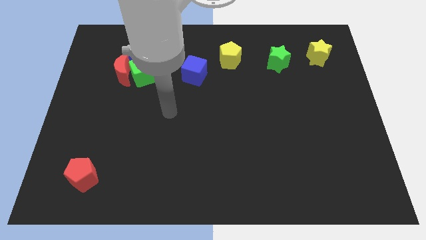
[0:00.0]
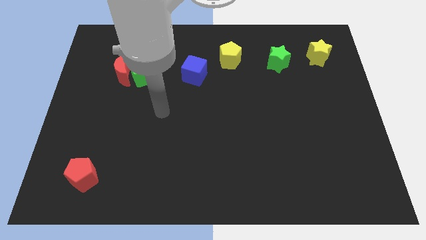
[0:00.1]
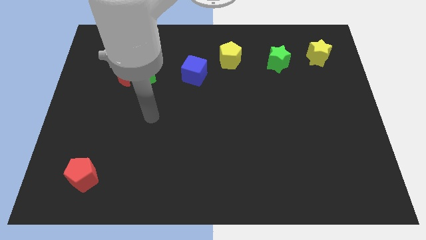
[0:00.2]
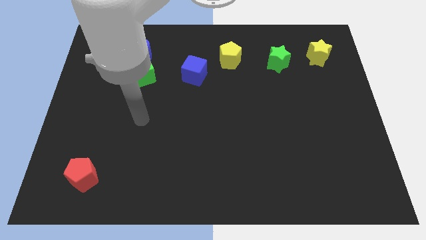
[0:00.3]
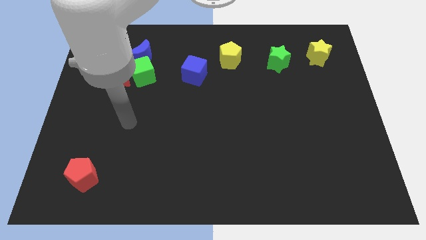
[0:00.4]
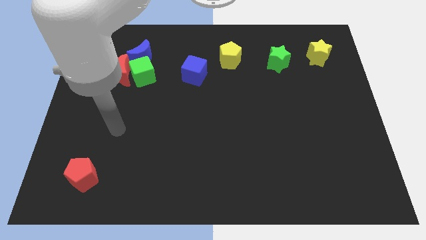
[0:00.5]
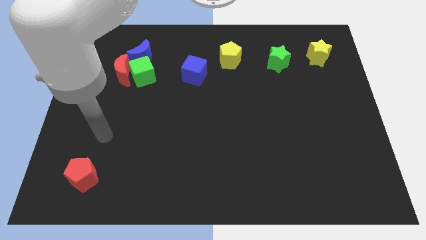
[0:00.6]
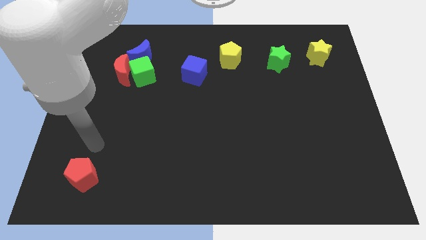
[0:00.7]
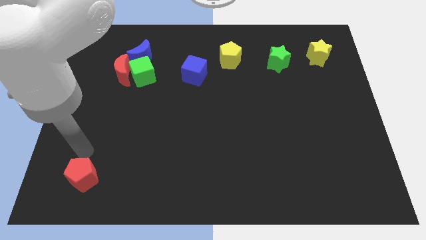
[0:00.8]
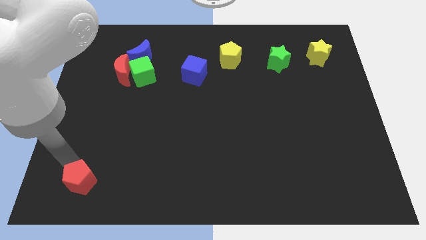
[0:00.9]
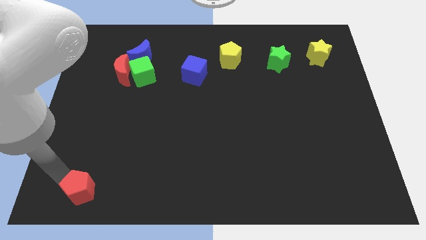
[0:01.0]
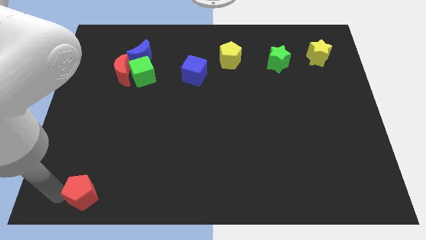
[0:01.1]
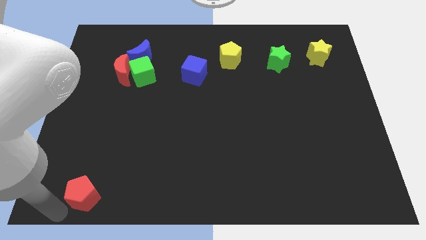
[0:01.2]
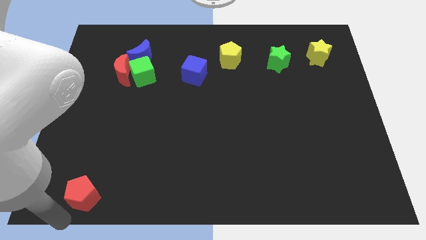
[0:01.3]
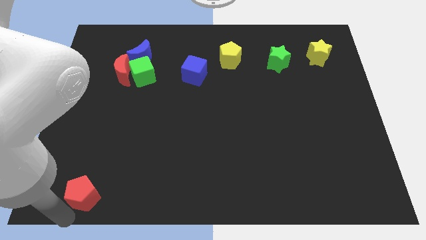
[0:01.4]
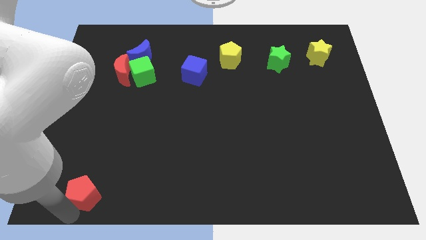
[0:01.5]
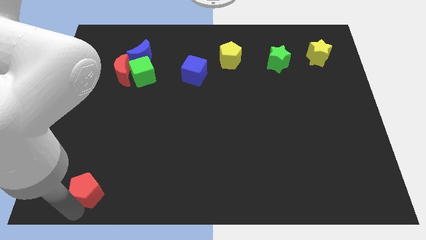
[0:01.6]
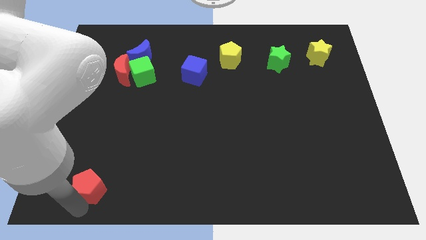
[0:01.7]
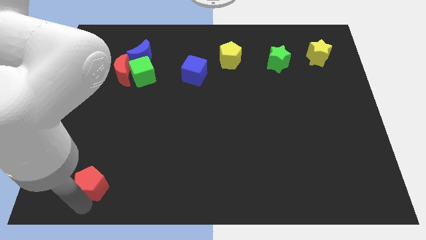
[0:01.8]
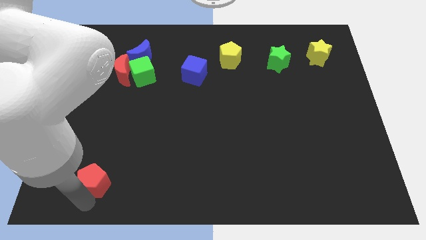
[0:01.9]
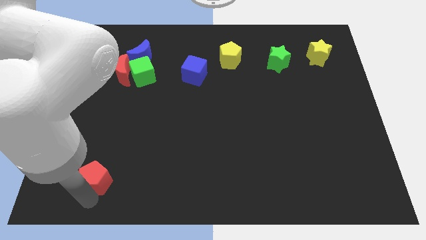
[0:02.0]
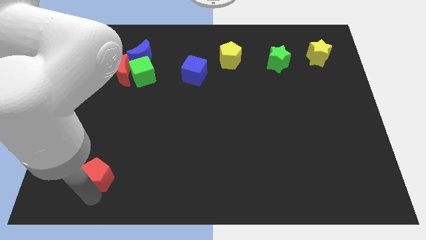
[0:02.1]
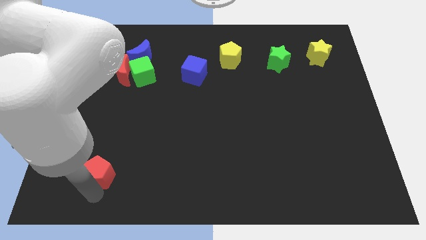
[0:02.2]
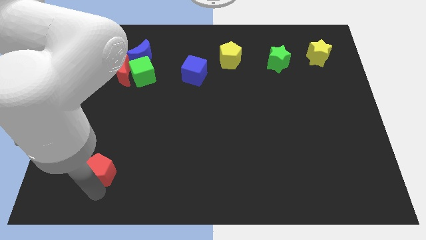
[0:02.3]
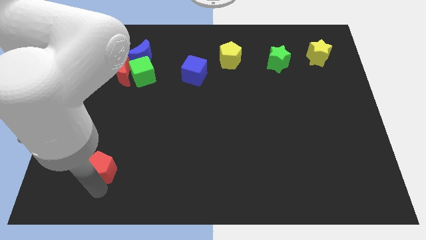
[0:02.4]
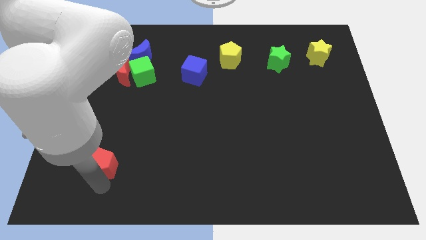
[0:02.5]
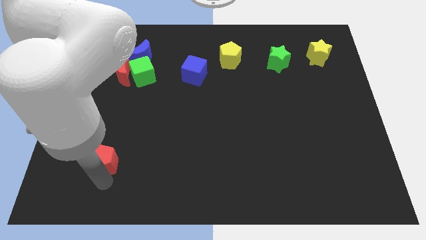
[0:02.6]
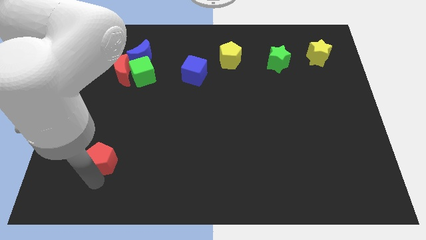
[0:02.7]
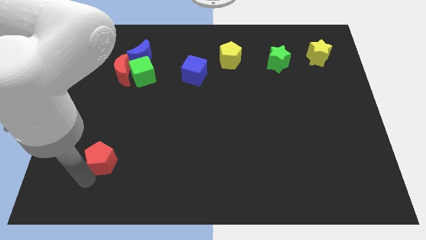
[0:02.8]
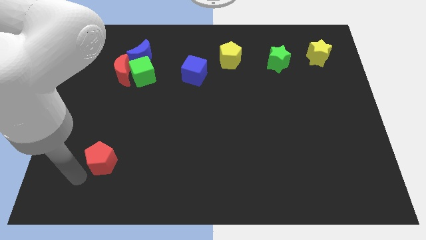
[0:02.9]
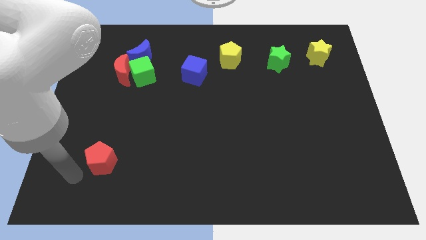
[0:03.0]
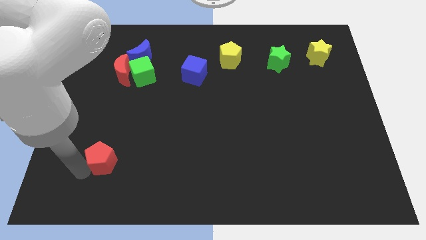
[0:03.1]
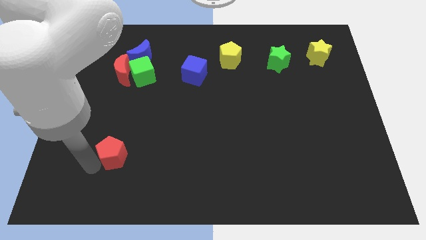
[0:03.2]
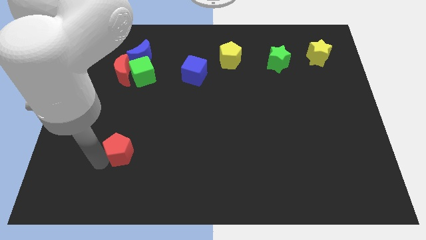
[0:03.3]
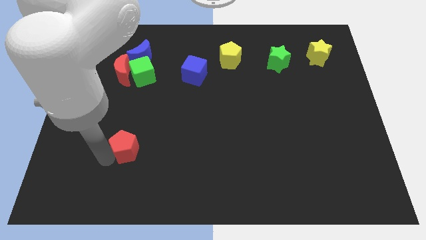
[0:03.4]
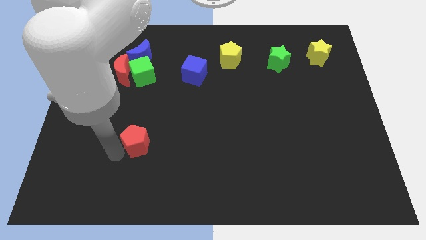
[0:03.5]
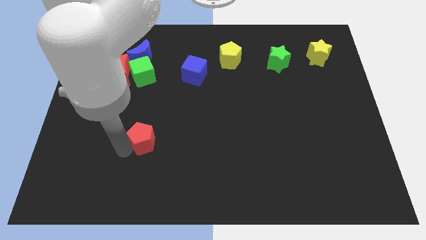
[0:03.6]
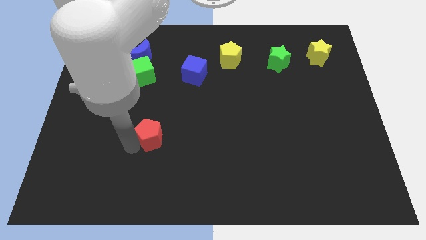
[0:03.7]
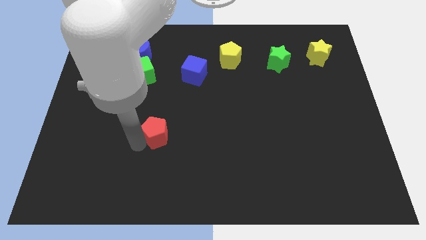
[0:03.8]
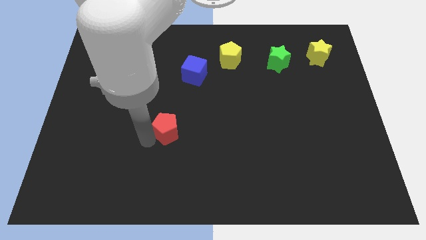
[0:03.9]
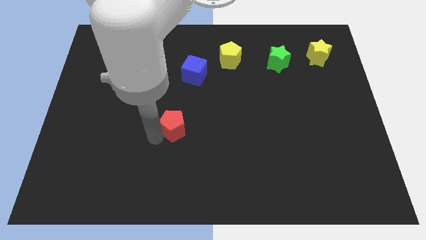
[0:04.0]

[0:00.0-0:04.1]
move the red pentagon upwards and to the right

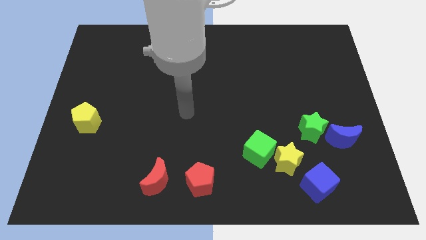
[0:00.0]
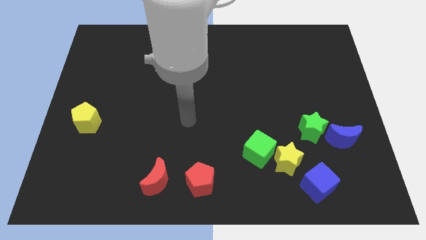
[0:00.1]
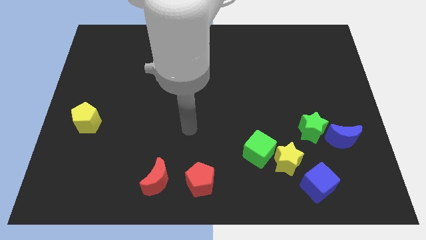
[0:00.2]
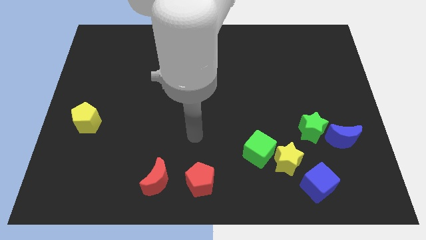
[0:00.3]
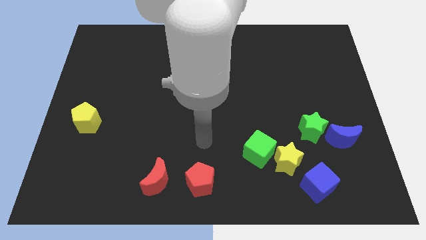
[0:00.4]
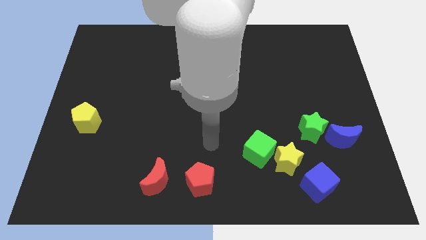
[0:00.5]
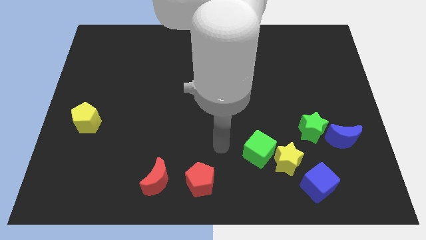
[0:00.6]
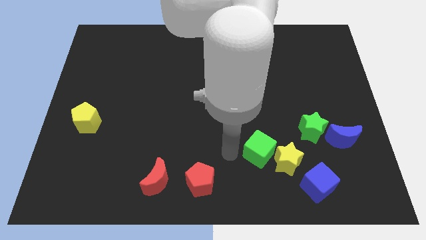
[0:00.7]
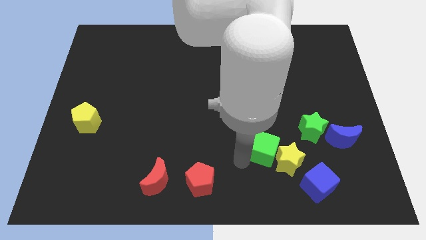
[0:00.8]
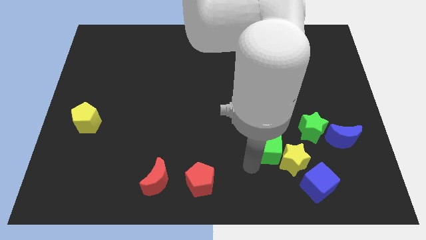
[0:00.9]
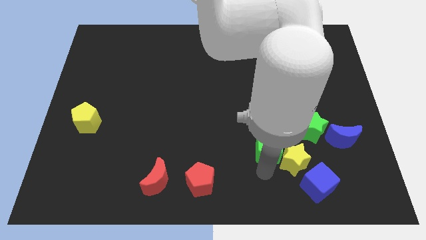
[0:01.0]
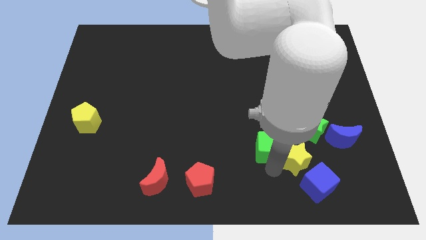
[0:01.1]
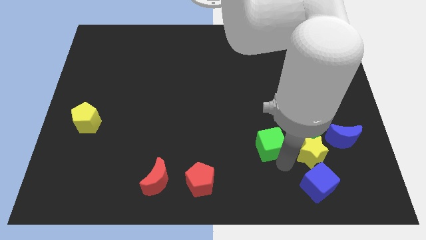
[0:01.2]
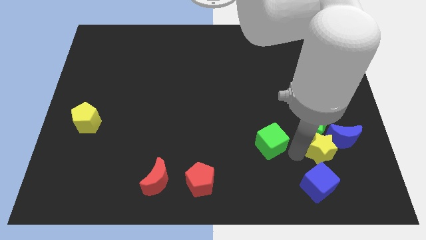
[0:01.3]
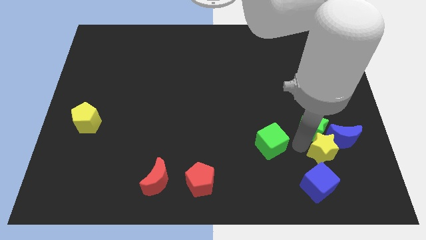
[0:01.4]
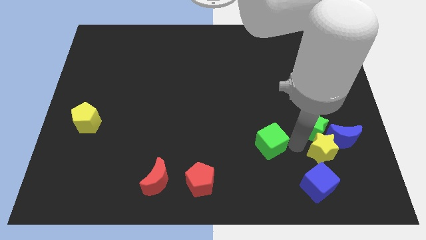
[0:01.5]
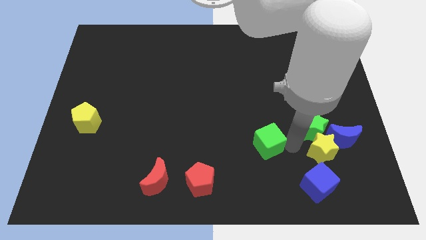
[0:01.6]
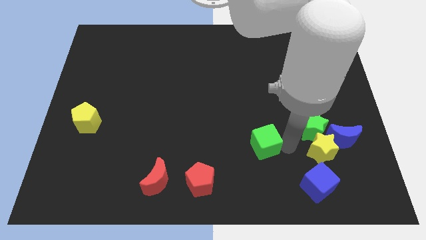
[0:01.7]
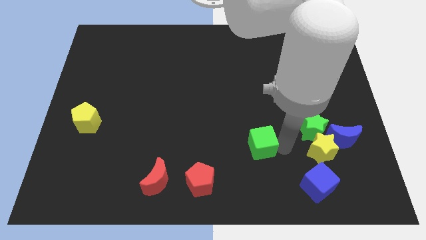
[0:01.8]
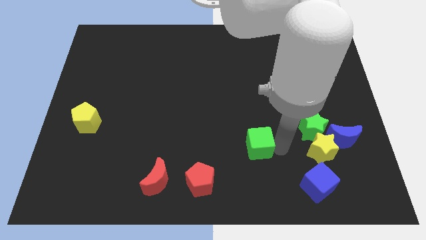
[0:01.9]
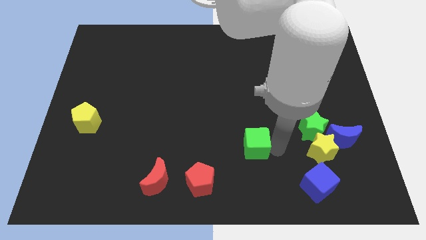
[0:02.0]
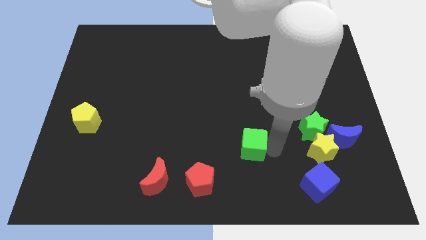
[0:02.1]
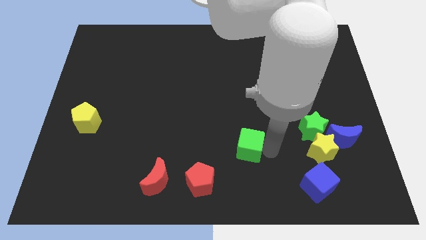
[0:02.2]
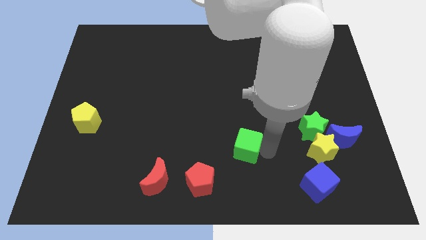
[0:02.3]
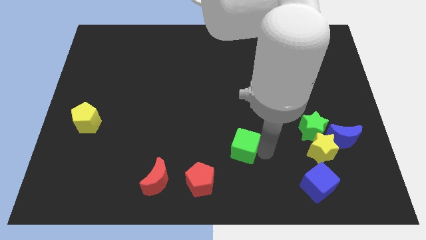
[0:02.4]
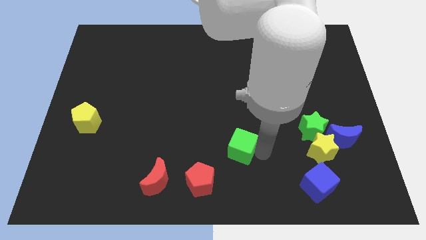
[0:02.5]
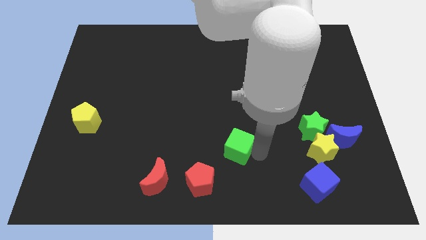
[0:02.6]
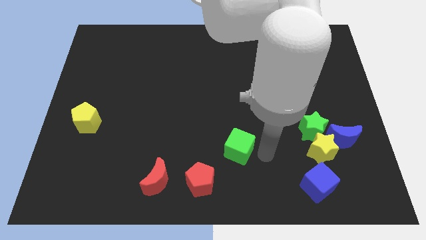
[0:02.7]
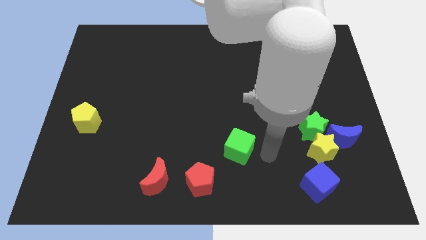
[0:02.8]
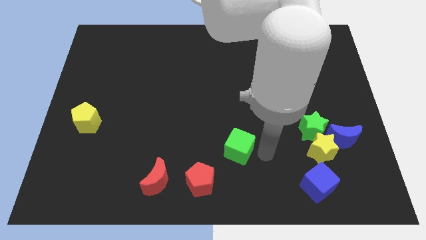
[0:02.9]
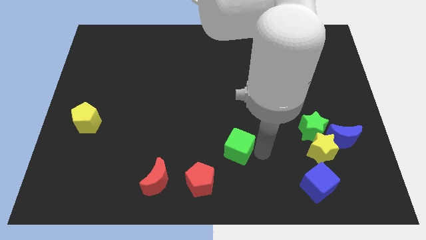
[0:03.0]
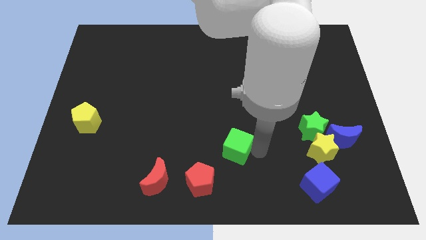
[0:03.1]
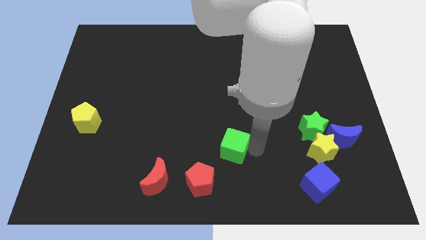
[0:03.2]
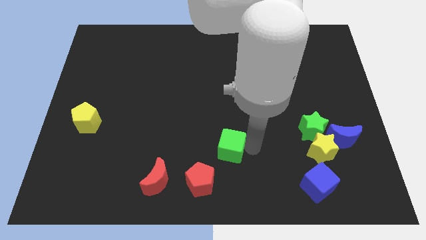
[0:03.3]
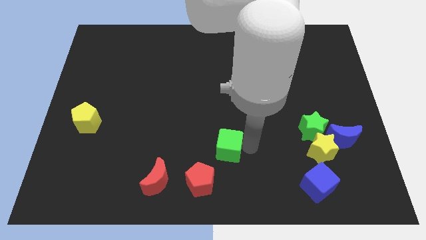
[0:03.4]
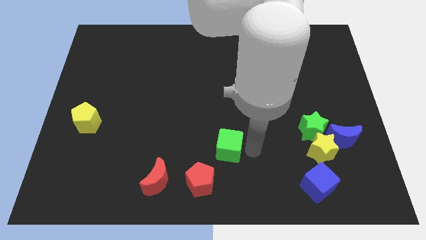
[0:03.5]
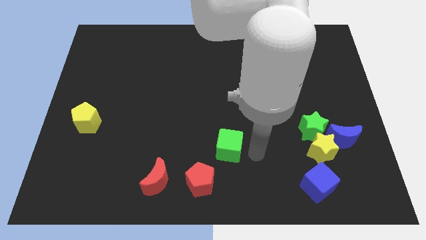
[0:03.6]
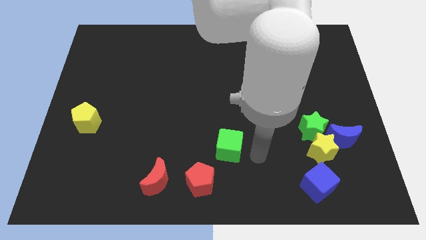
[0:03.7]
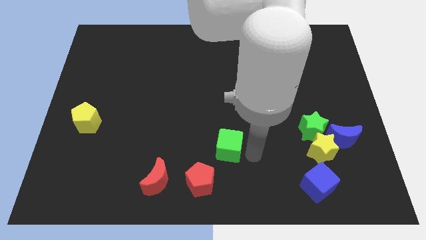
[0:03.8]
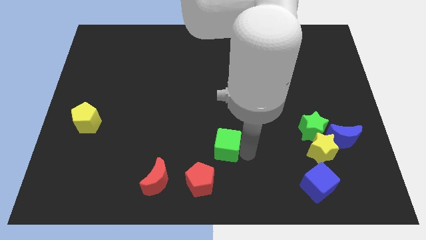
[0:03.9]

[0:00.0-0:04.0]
push the green cube left slightly
